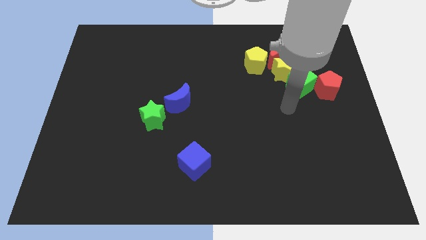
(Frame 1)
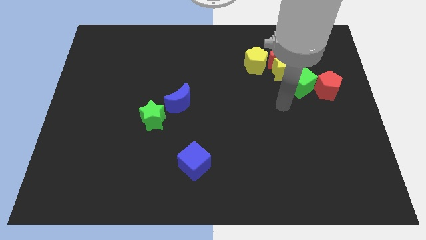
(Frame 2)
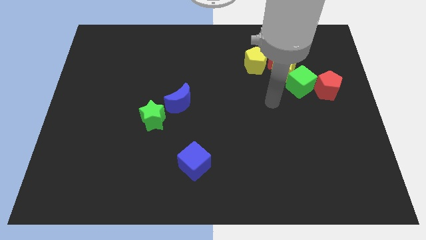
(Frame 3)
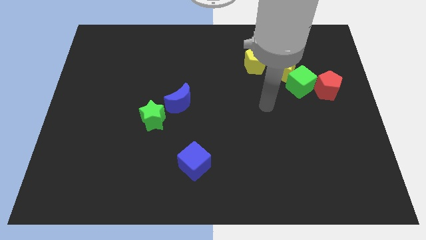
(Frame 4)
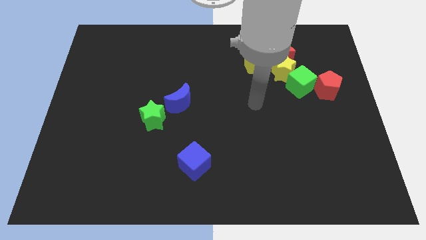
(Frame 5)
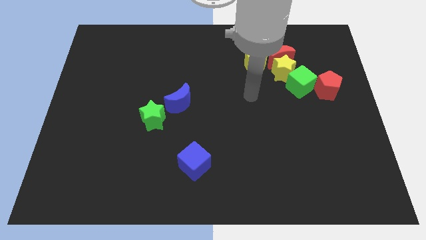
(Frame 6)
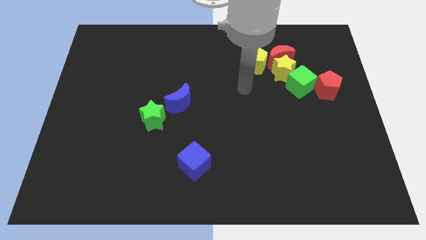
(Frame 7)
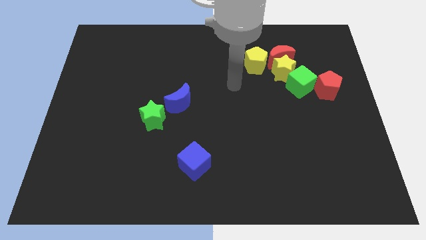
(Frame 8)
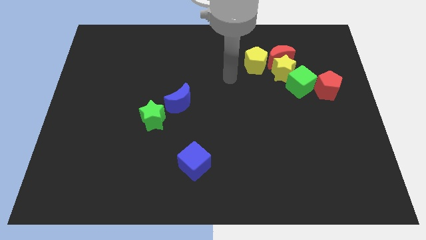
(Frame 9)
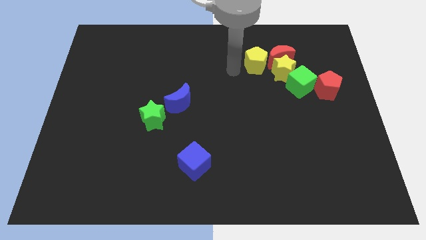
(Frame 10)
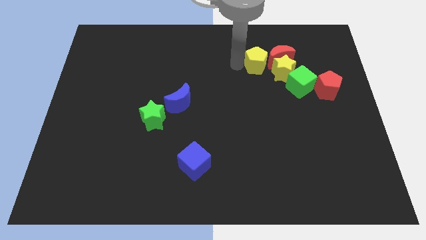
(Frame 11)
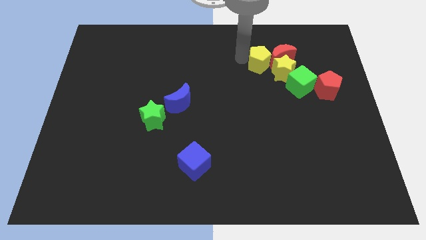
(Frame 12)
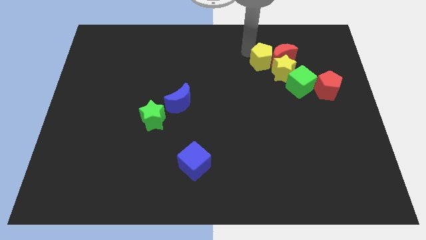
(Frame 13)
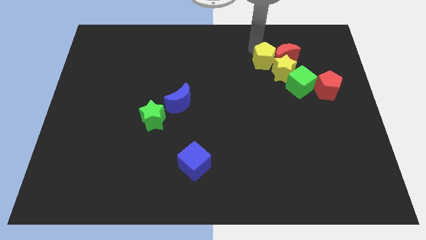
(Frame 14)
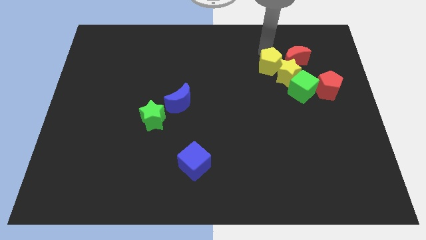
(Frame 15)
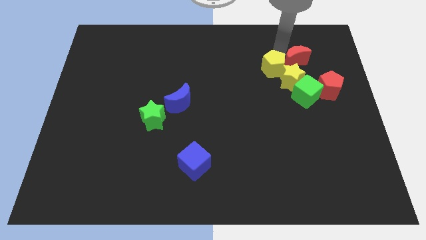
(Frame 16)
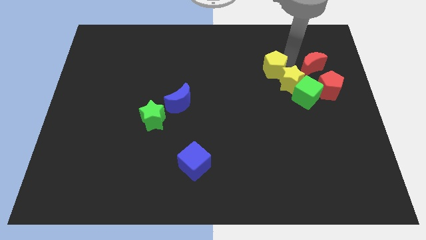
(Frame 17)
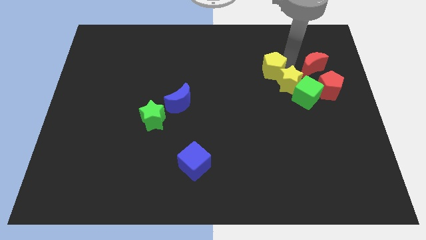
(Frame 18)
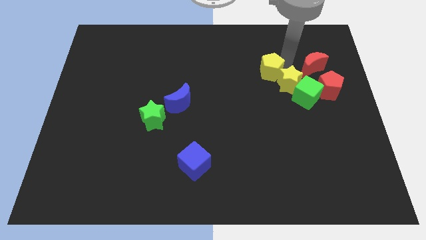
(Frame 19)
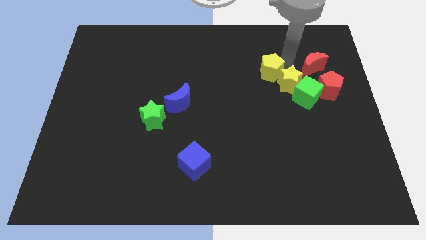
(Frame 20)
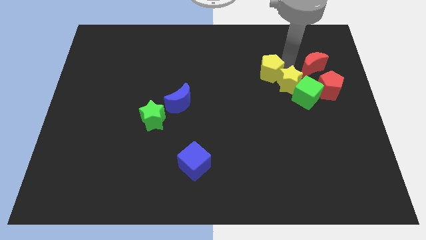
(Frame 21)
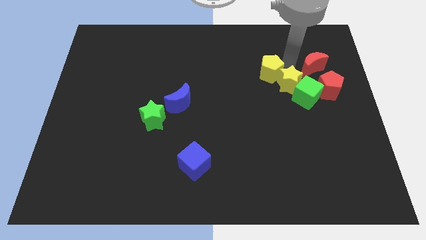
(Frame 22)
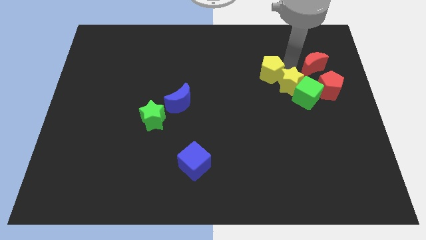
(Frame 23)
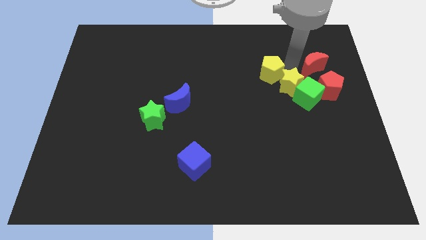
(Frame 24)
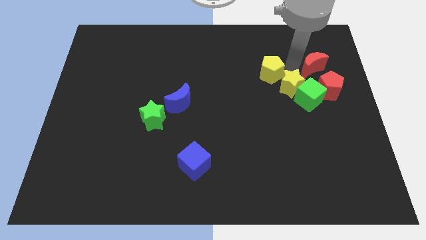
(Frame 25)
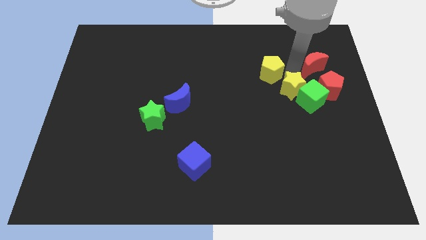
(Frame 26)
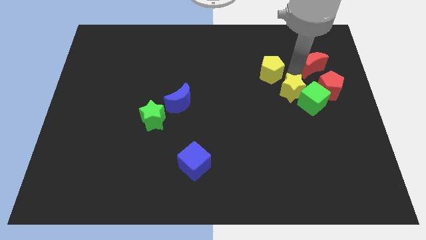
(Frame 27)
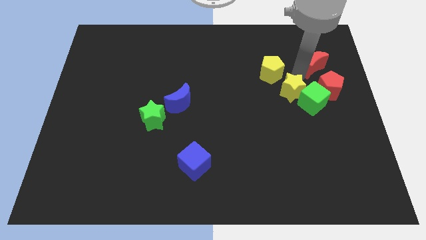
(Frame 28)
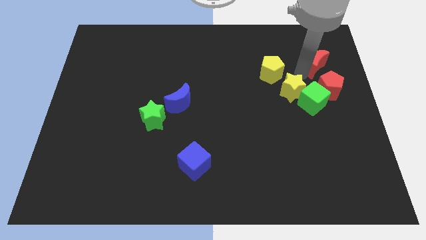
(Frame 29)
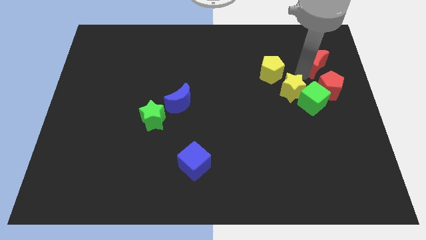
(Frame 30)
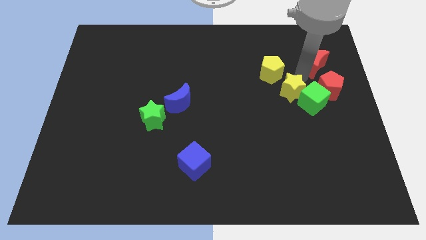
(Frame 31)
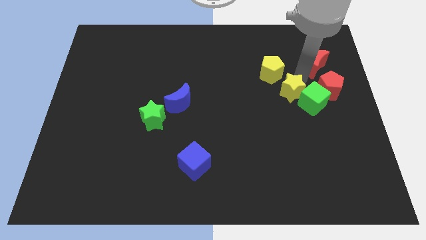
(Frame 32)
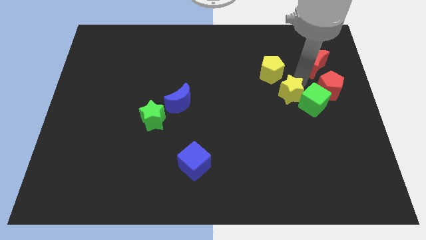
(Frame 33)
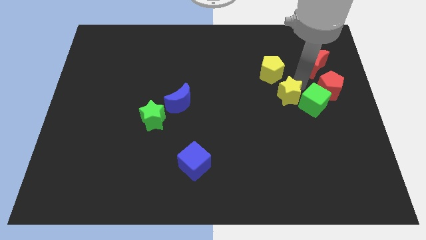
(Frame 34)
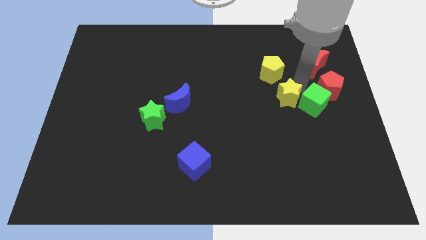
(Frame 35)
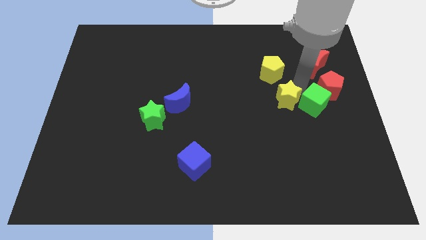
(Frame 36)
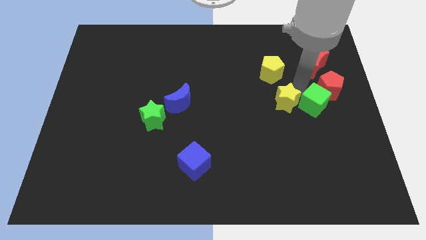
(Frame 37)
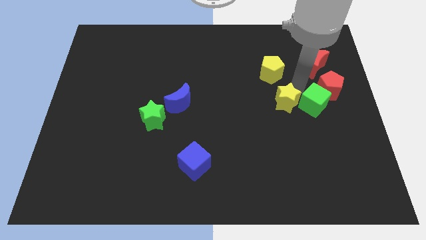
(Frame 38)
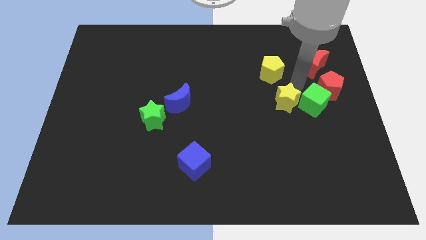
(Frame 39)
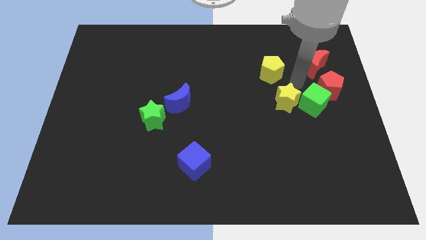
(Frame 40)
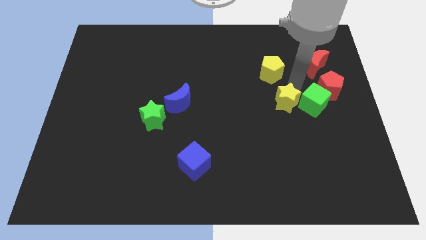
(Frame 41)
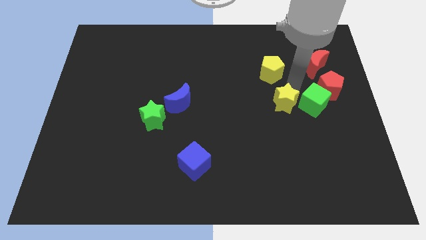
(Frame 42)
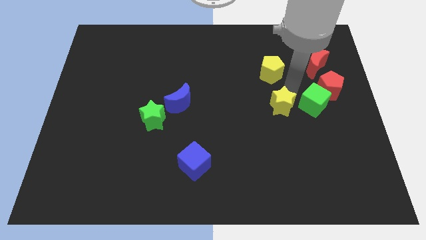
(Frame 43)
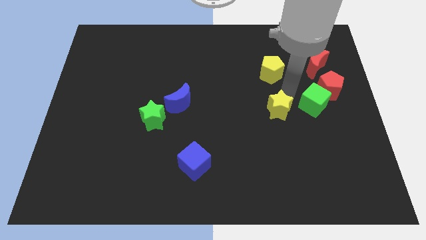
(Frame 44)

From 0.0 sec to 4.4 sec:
separate the yellow star from the red moon, green cube, and yellow pentagon

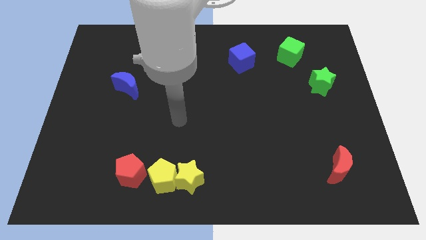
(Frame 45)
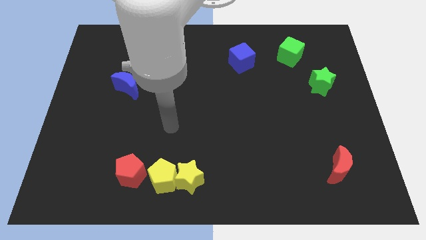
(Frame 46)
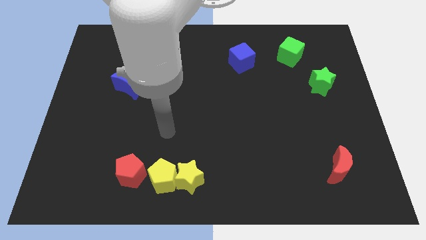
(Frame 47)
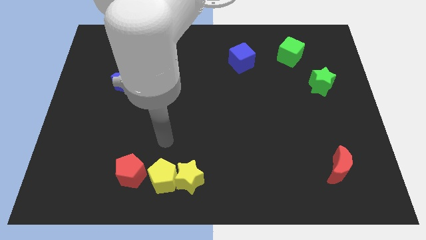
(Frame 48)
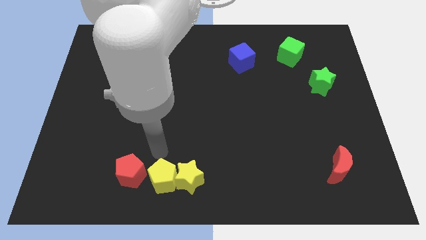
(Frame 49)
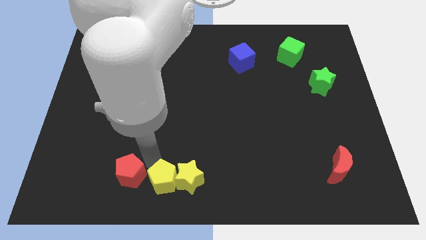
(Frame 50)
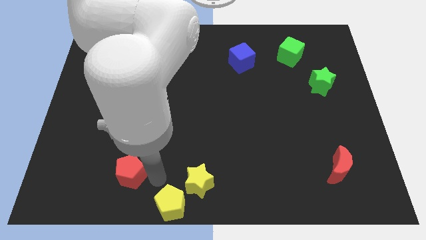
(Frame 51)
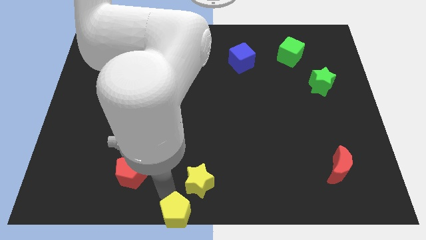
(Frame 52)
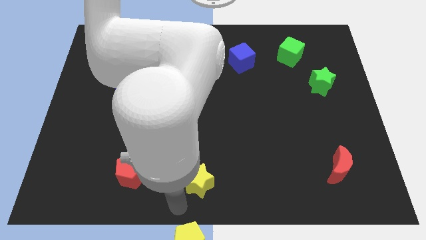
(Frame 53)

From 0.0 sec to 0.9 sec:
separate the yellow star from the yellow pentagon

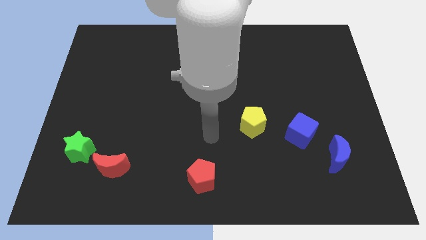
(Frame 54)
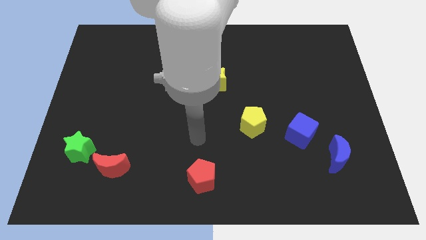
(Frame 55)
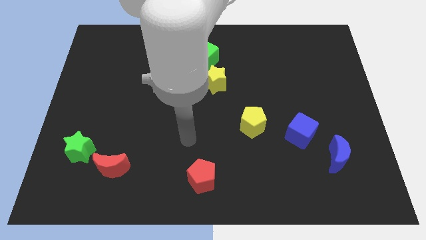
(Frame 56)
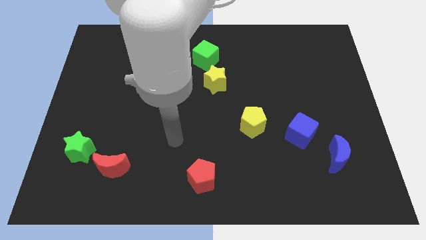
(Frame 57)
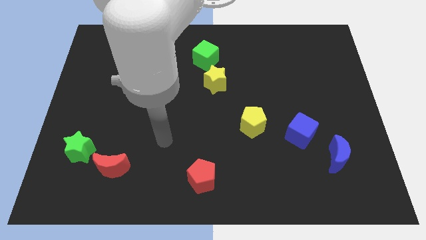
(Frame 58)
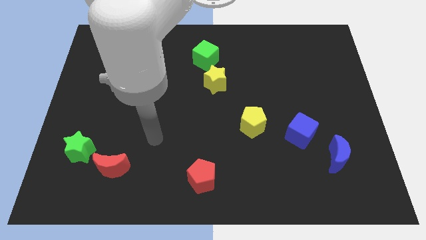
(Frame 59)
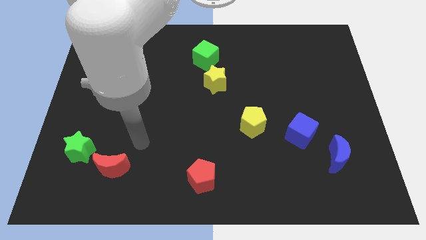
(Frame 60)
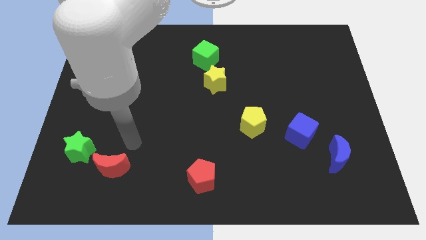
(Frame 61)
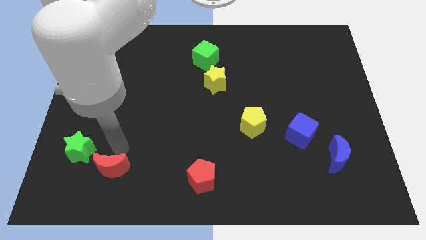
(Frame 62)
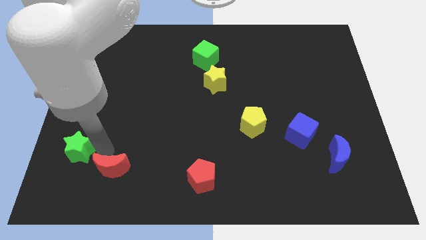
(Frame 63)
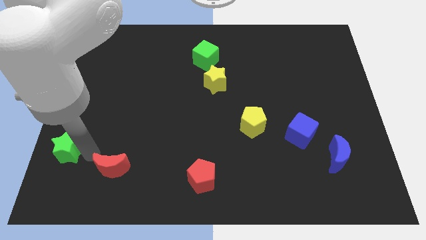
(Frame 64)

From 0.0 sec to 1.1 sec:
separate the red moon from the green star

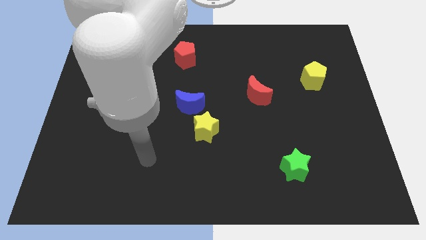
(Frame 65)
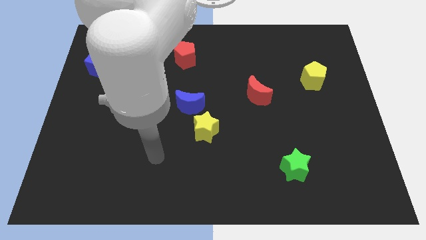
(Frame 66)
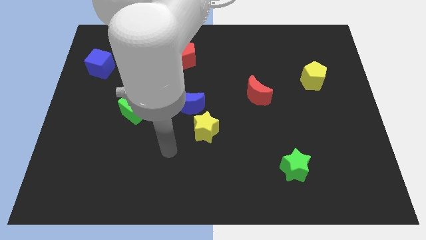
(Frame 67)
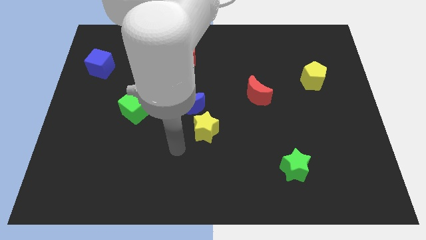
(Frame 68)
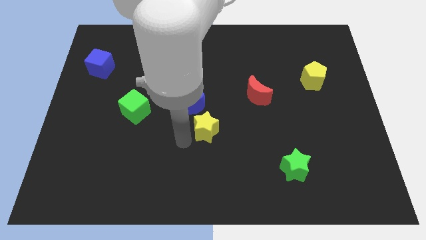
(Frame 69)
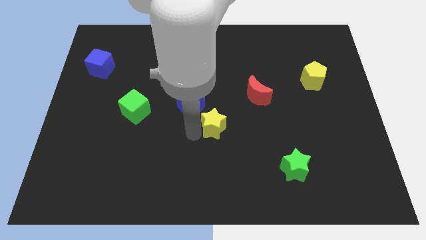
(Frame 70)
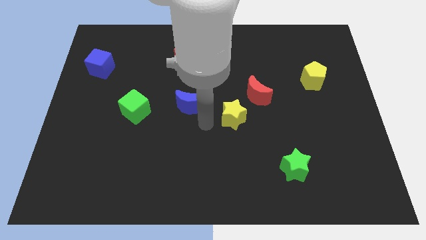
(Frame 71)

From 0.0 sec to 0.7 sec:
pull the blue moon apart from the yellow star

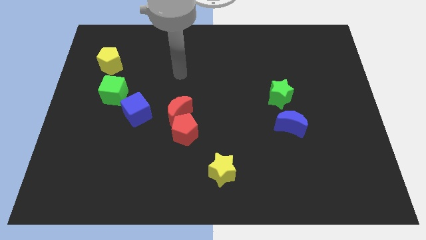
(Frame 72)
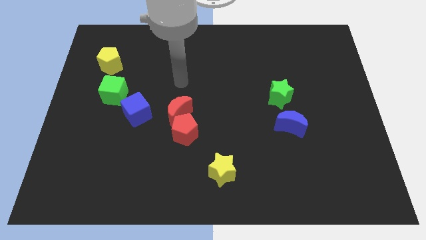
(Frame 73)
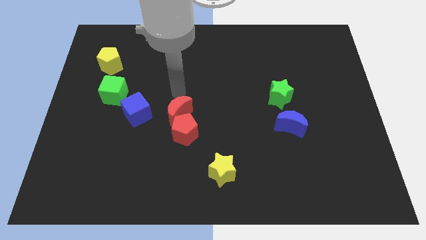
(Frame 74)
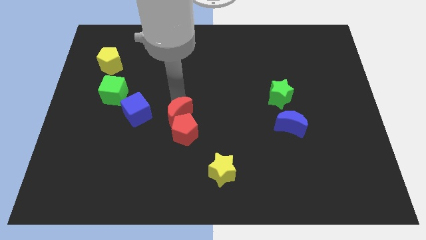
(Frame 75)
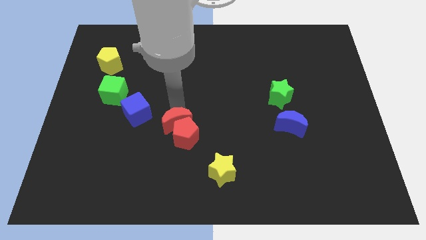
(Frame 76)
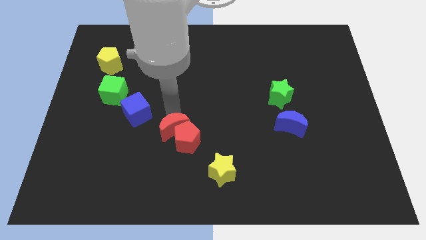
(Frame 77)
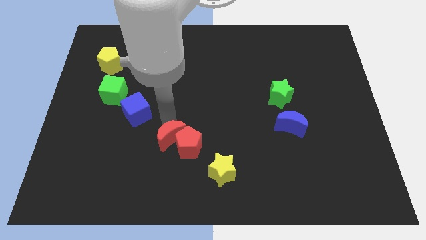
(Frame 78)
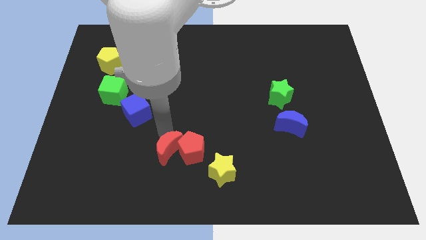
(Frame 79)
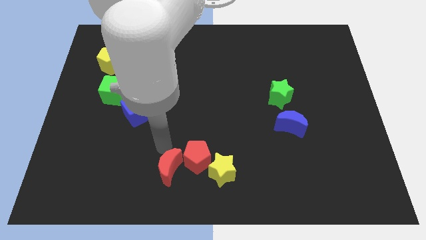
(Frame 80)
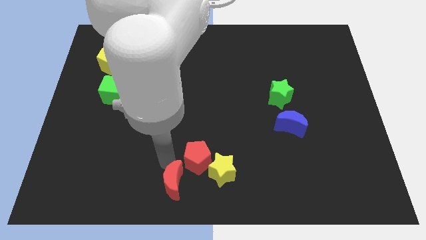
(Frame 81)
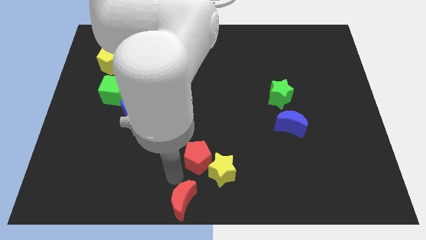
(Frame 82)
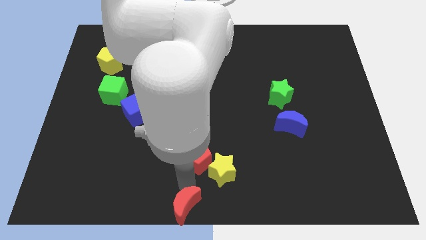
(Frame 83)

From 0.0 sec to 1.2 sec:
move the red pentagon away from the red moon

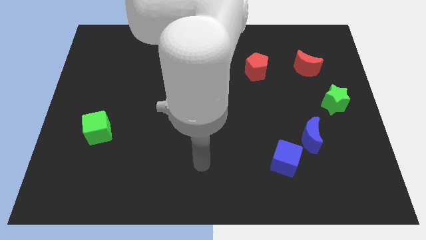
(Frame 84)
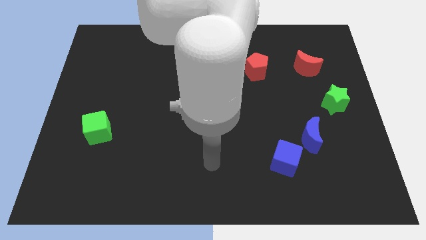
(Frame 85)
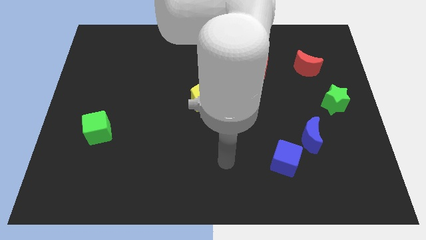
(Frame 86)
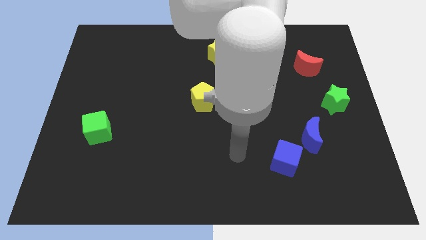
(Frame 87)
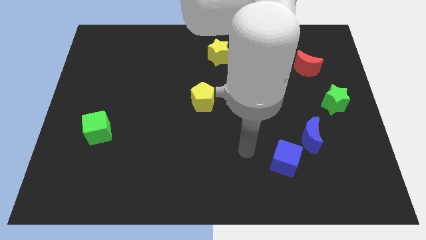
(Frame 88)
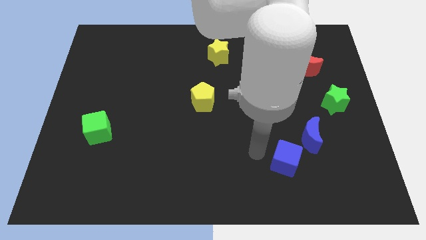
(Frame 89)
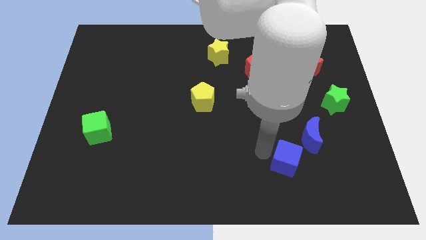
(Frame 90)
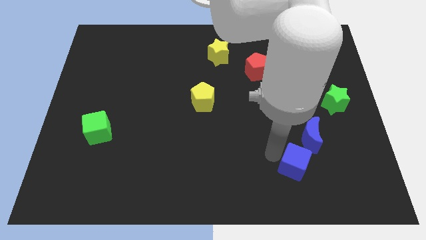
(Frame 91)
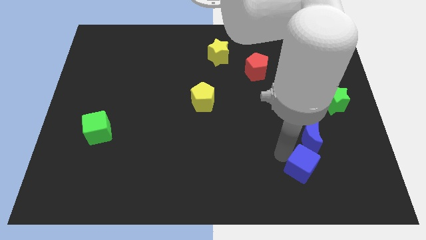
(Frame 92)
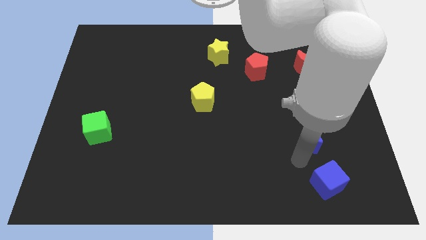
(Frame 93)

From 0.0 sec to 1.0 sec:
separate the blue moon from the blue cube
